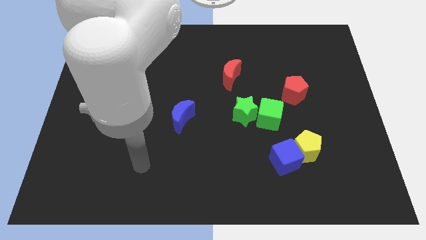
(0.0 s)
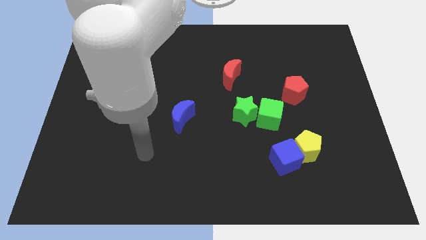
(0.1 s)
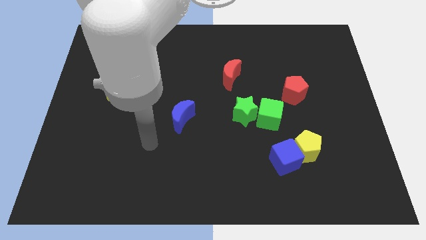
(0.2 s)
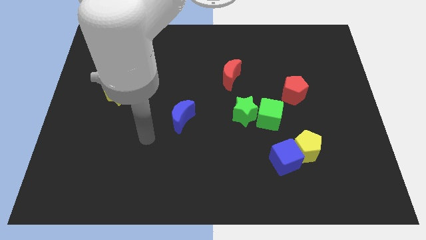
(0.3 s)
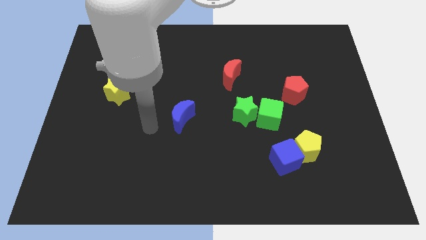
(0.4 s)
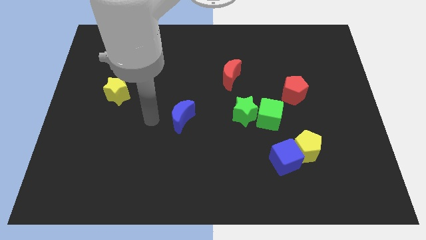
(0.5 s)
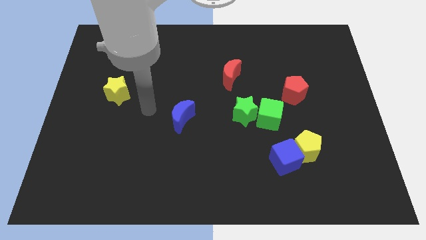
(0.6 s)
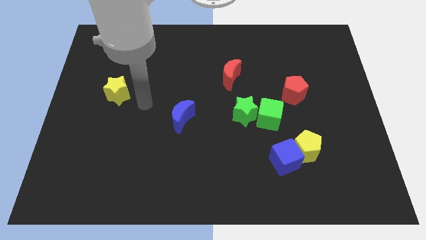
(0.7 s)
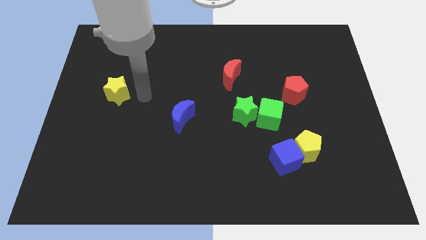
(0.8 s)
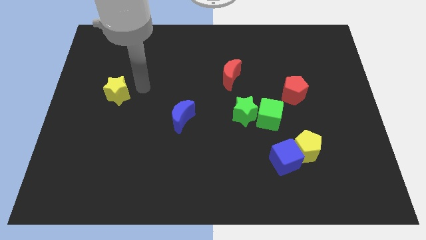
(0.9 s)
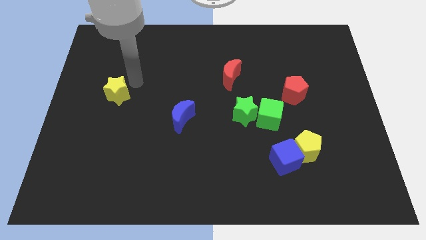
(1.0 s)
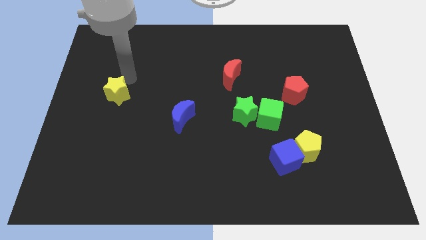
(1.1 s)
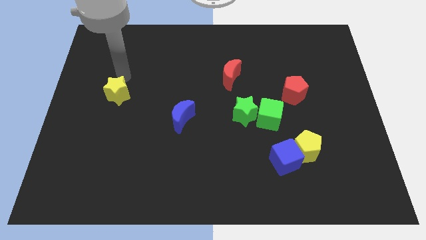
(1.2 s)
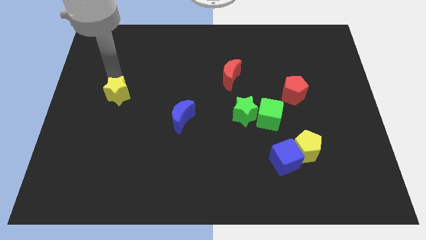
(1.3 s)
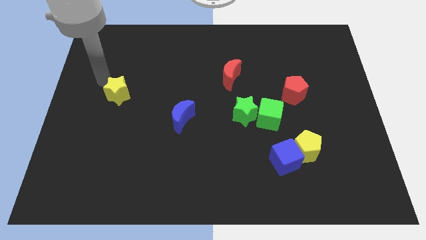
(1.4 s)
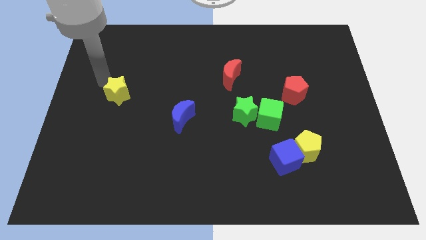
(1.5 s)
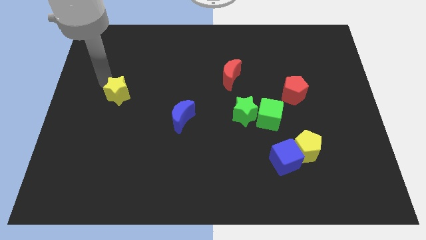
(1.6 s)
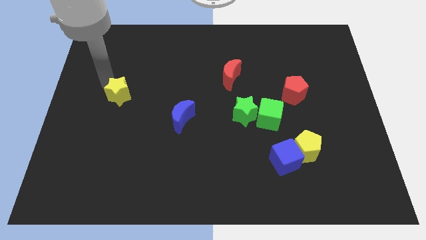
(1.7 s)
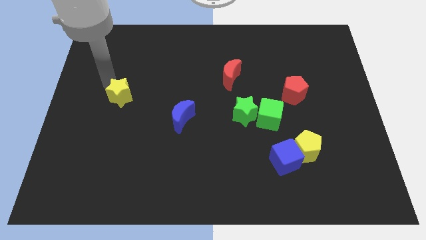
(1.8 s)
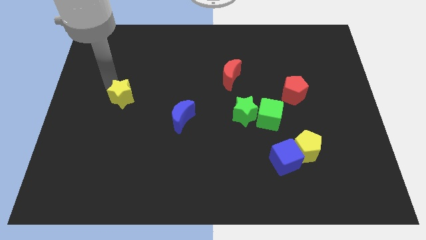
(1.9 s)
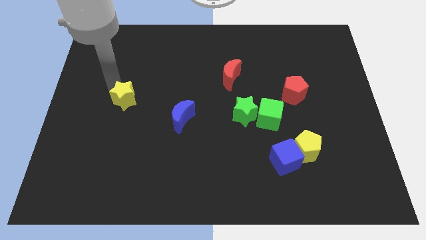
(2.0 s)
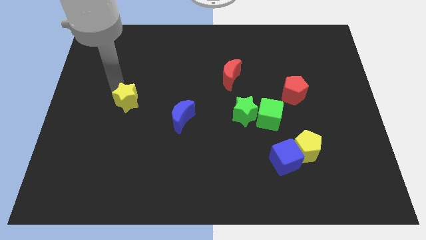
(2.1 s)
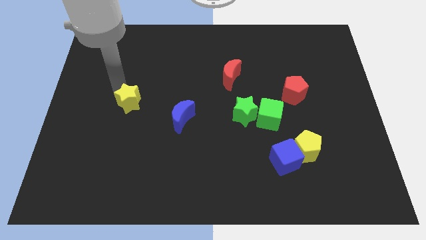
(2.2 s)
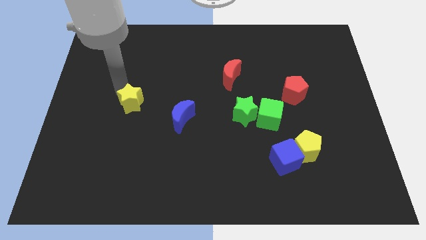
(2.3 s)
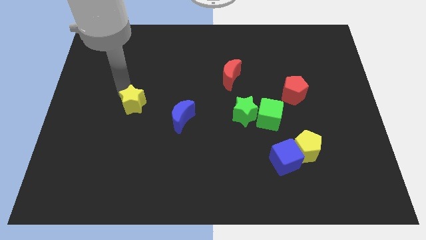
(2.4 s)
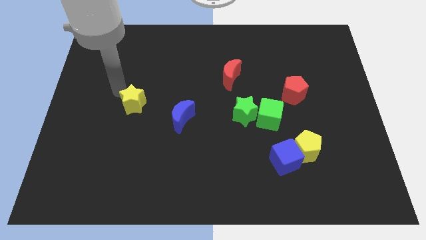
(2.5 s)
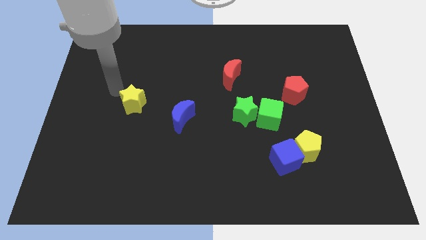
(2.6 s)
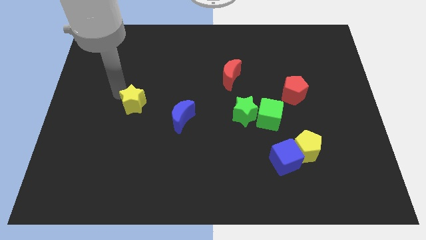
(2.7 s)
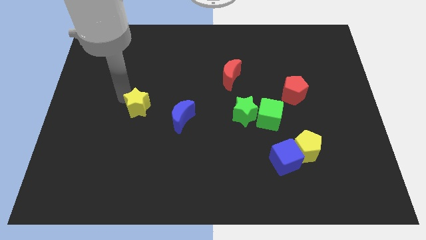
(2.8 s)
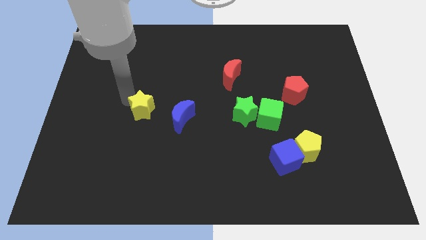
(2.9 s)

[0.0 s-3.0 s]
move the yellow star slightly down and to the right diagonally

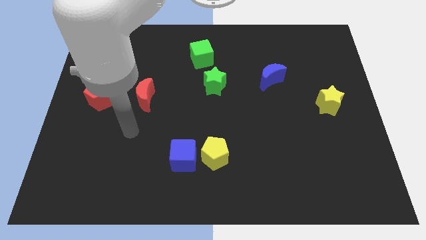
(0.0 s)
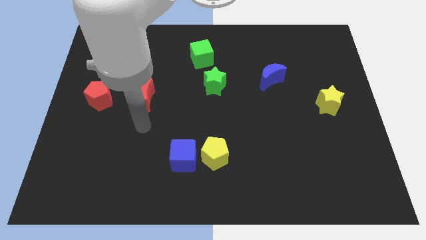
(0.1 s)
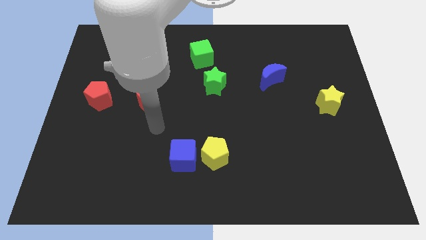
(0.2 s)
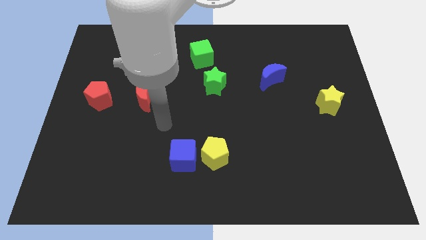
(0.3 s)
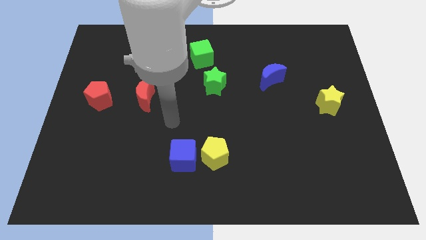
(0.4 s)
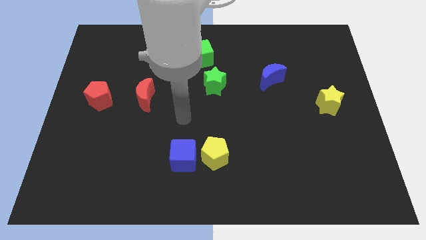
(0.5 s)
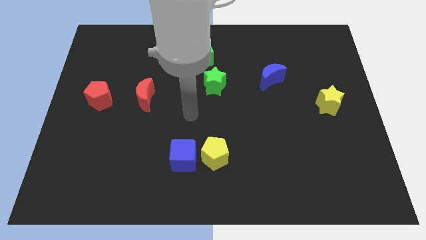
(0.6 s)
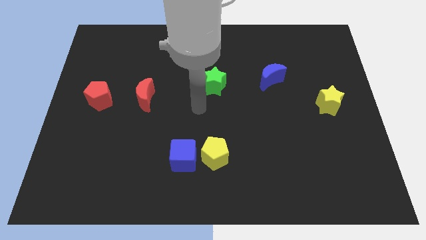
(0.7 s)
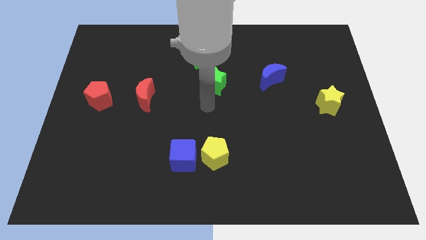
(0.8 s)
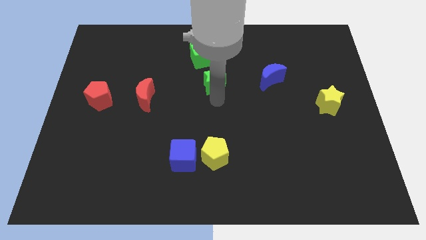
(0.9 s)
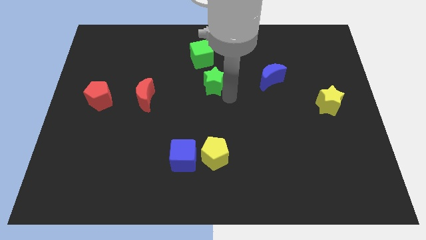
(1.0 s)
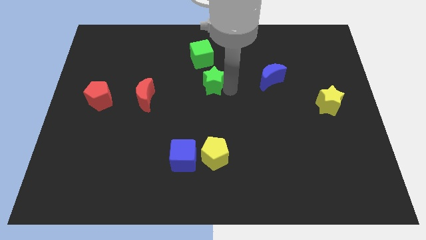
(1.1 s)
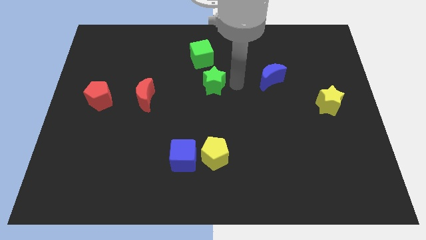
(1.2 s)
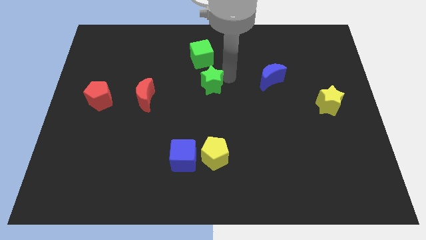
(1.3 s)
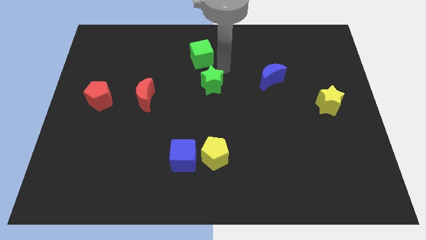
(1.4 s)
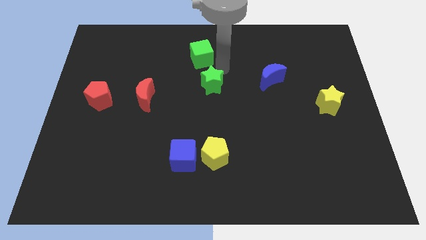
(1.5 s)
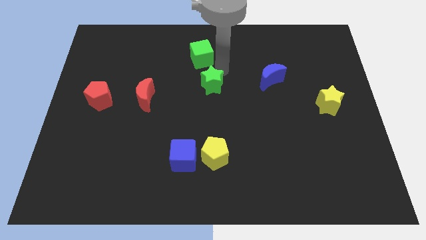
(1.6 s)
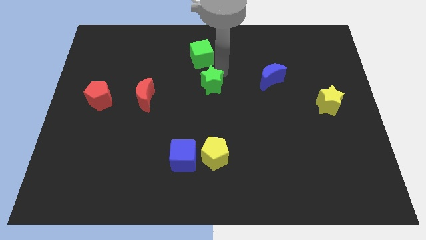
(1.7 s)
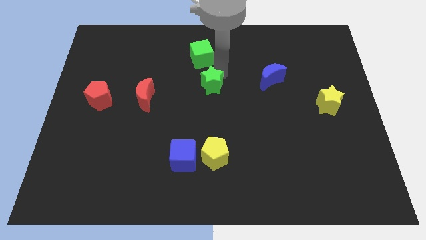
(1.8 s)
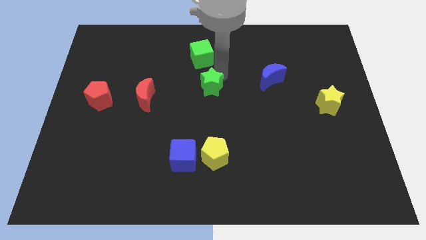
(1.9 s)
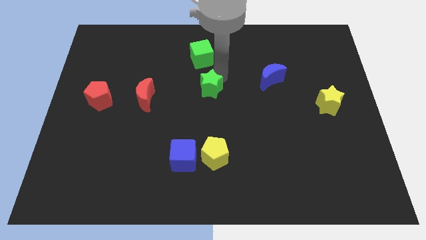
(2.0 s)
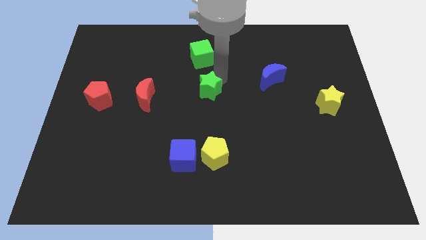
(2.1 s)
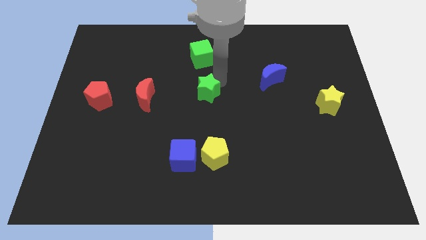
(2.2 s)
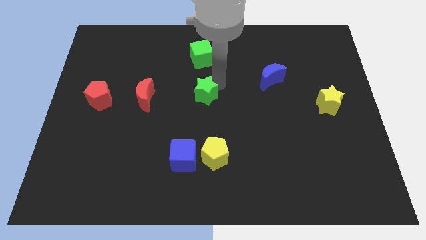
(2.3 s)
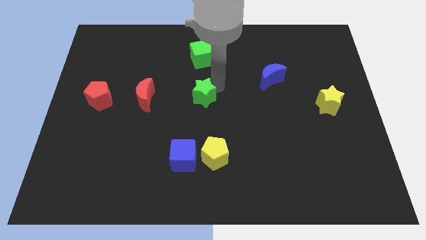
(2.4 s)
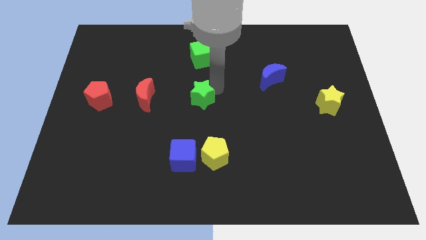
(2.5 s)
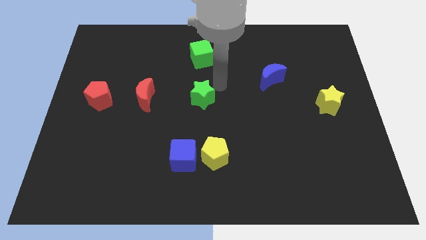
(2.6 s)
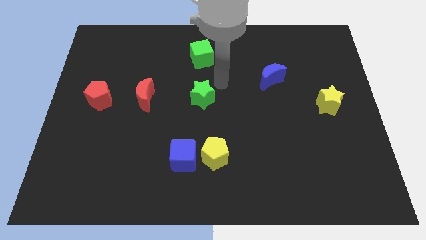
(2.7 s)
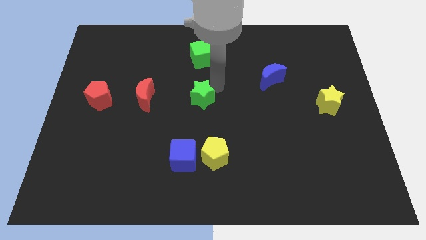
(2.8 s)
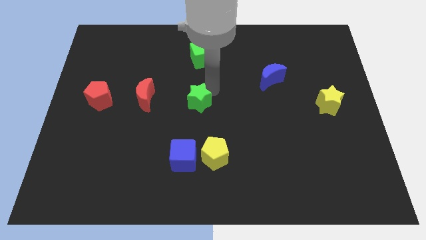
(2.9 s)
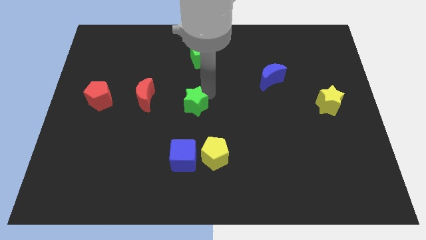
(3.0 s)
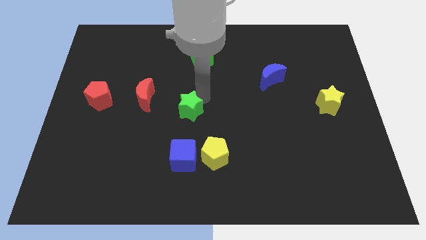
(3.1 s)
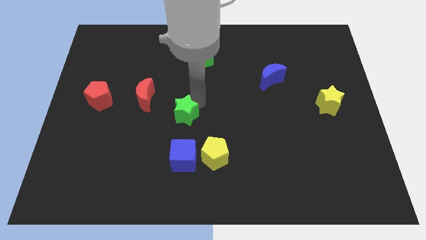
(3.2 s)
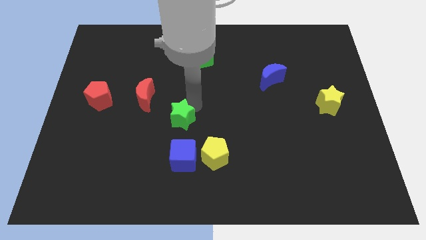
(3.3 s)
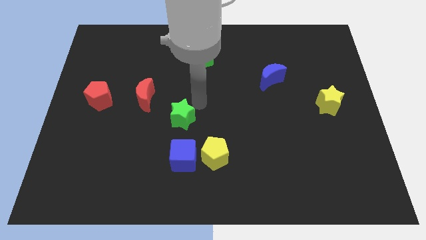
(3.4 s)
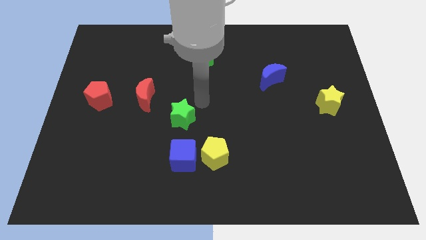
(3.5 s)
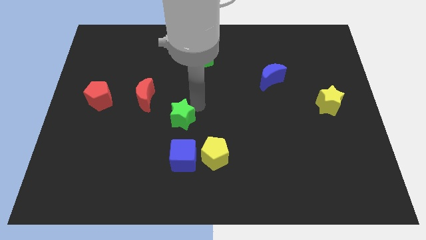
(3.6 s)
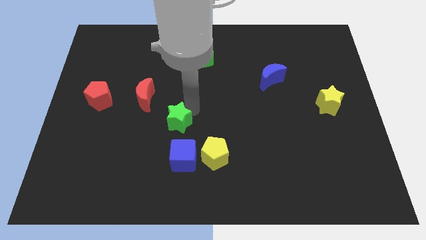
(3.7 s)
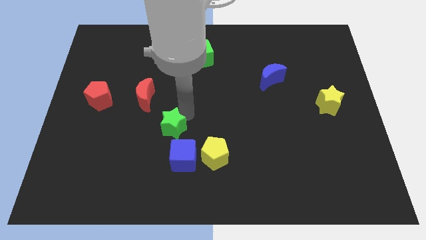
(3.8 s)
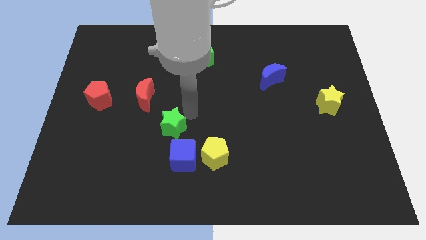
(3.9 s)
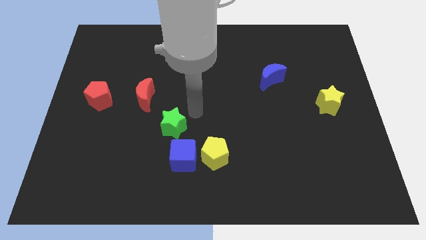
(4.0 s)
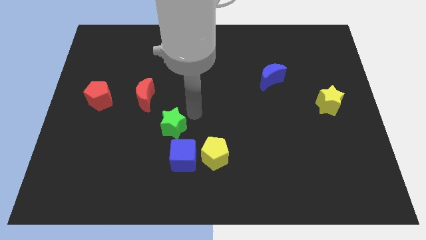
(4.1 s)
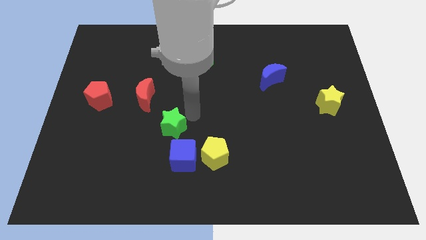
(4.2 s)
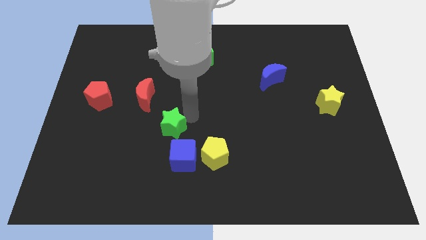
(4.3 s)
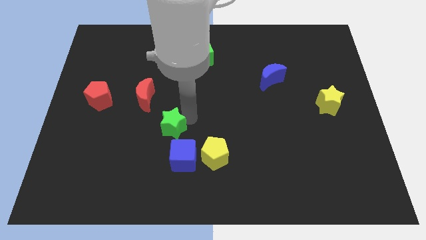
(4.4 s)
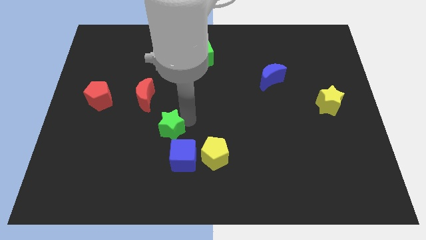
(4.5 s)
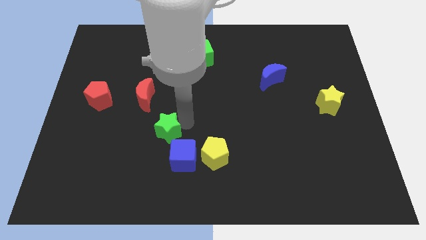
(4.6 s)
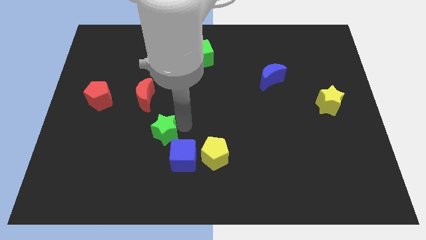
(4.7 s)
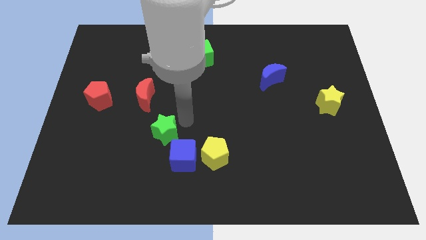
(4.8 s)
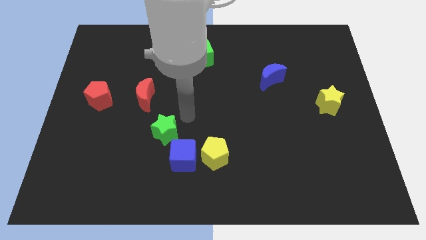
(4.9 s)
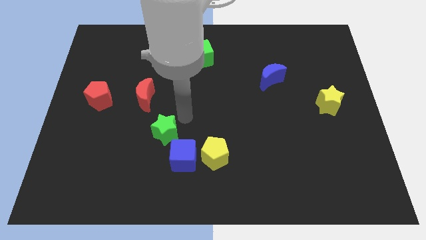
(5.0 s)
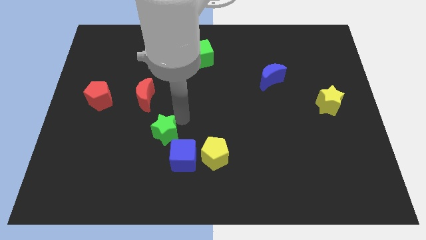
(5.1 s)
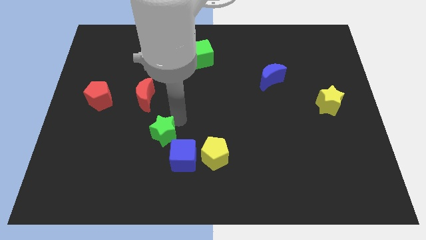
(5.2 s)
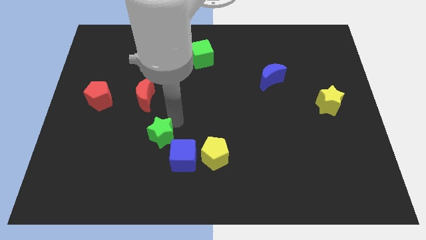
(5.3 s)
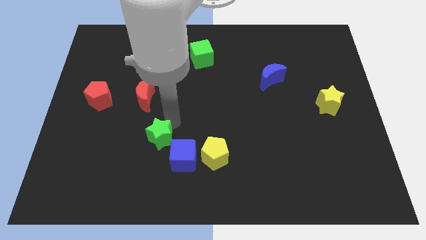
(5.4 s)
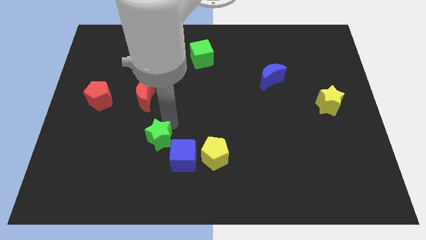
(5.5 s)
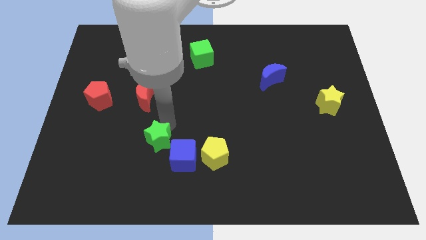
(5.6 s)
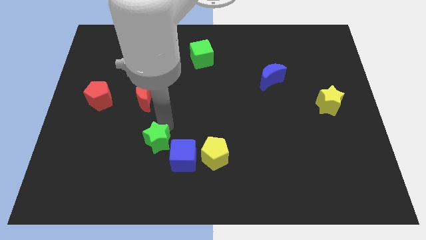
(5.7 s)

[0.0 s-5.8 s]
push the green star down and left
